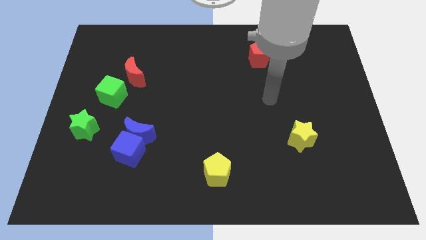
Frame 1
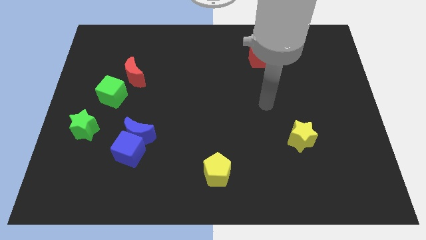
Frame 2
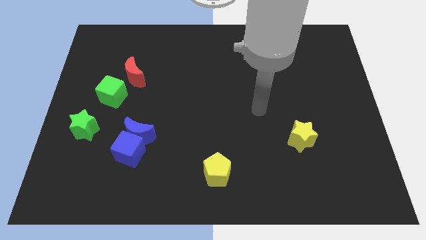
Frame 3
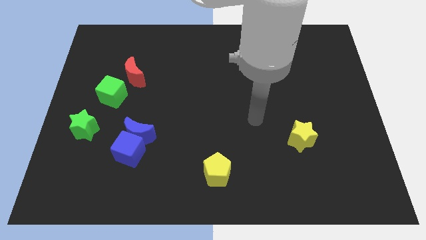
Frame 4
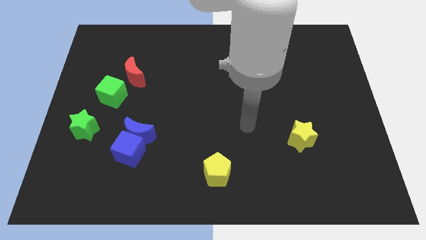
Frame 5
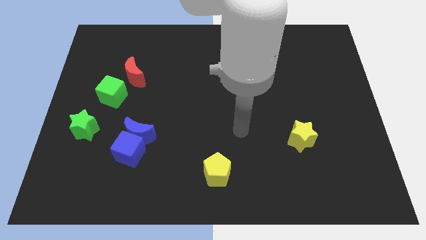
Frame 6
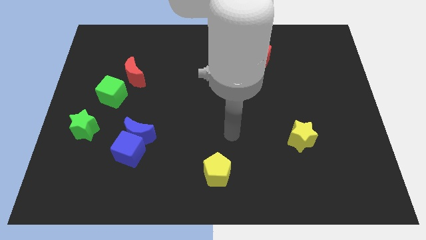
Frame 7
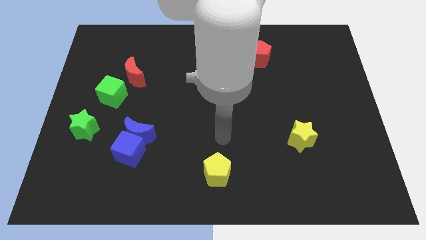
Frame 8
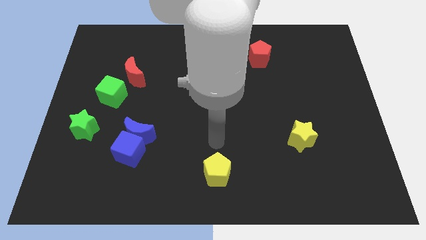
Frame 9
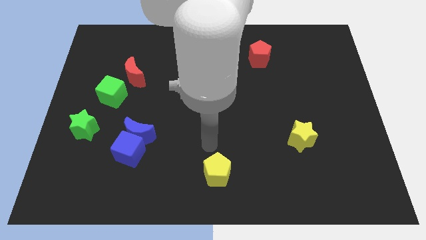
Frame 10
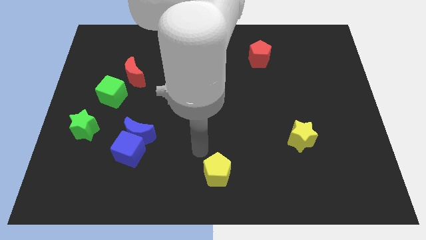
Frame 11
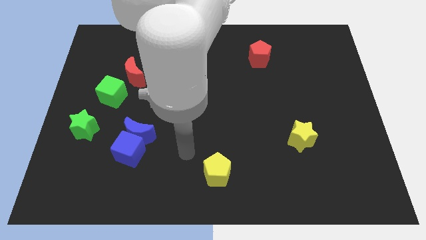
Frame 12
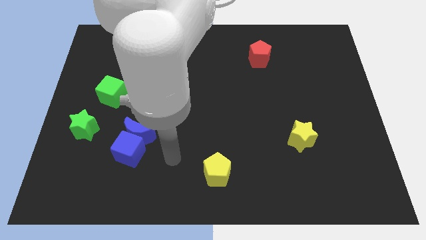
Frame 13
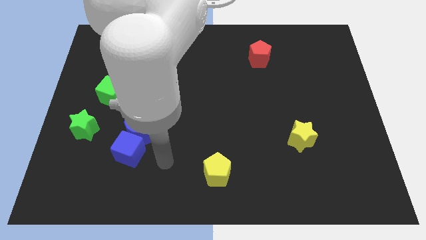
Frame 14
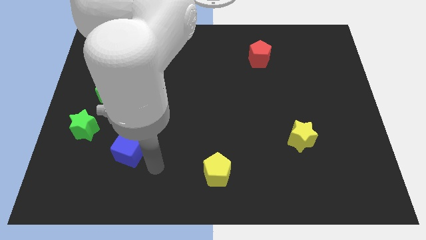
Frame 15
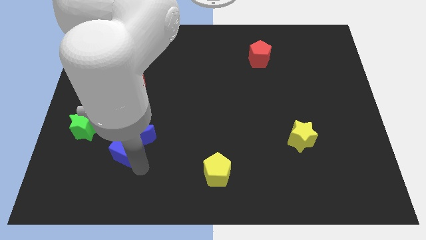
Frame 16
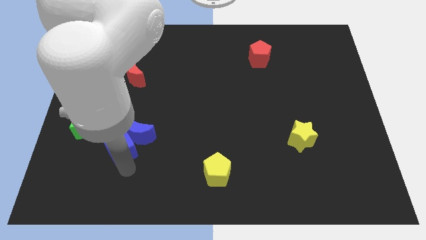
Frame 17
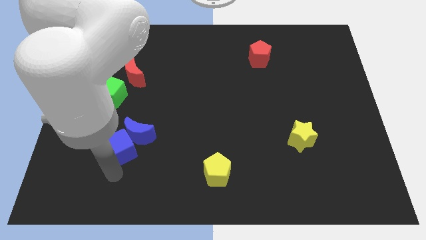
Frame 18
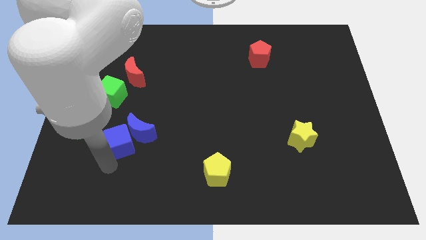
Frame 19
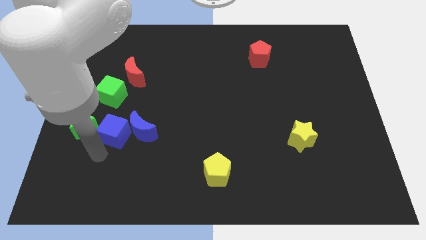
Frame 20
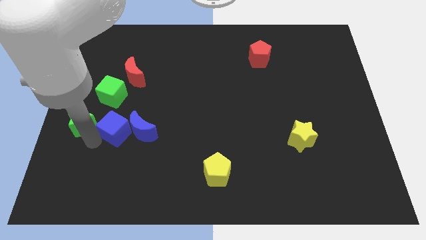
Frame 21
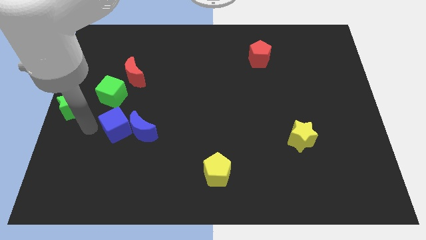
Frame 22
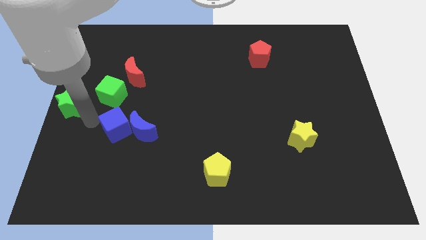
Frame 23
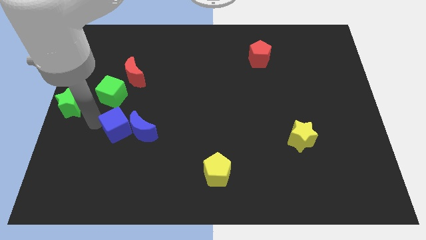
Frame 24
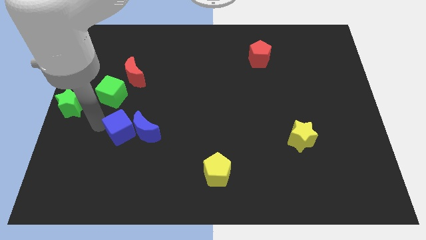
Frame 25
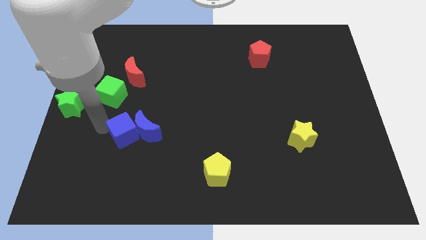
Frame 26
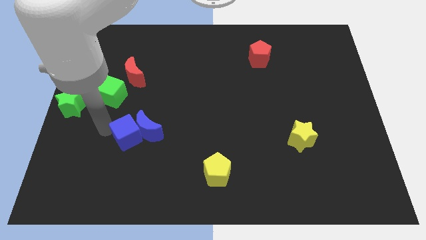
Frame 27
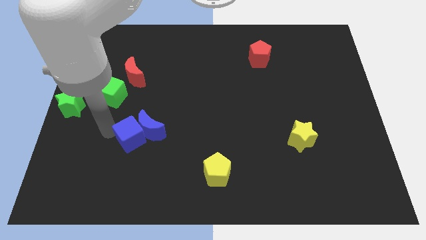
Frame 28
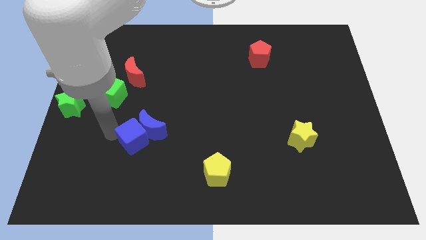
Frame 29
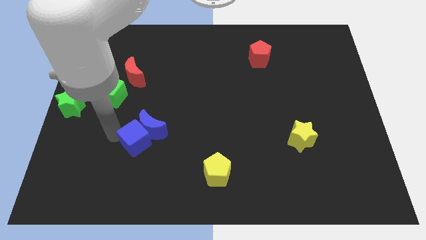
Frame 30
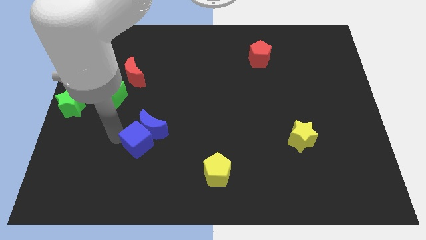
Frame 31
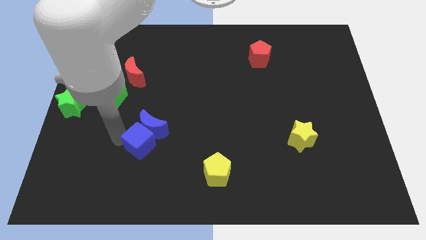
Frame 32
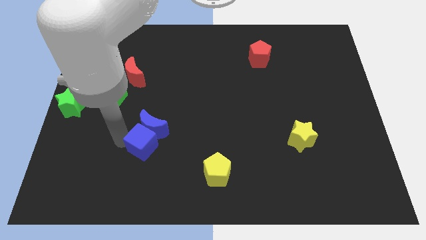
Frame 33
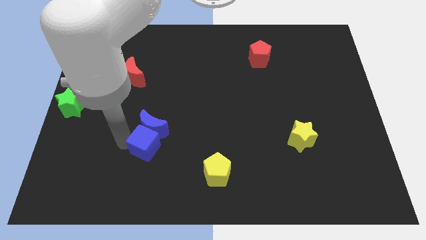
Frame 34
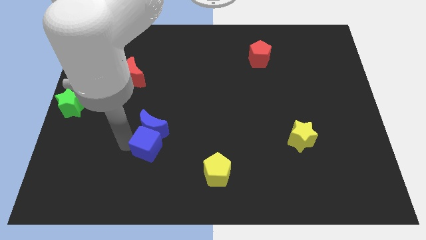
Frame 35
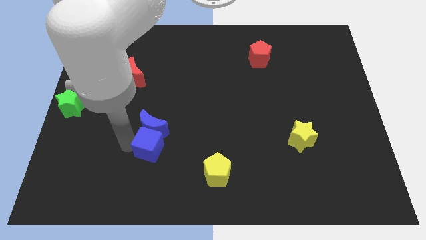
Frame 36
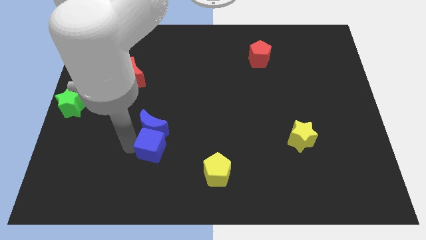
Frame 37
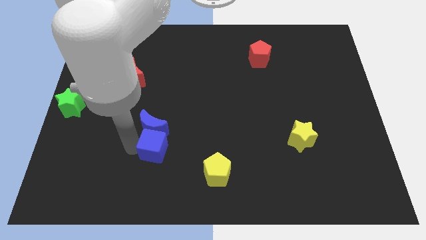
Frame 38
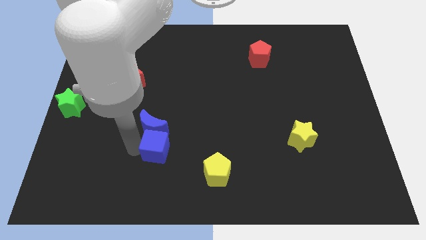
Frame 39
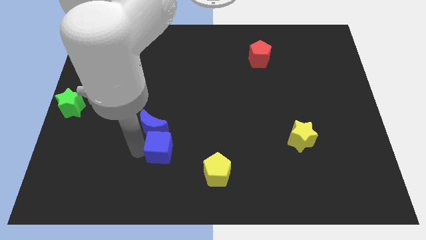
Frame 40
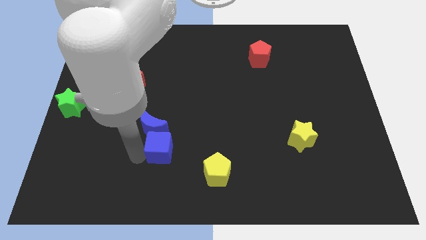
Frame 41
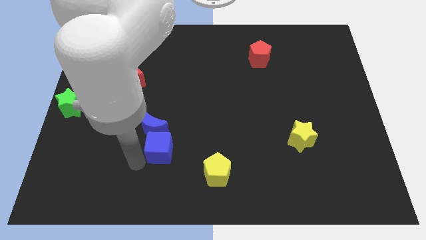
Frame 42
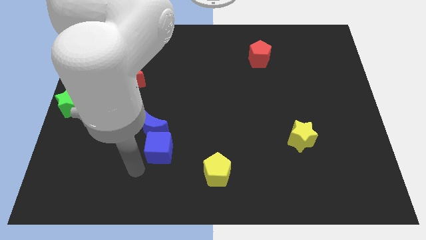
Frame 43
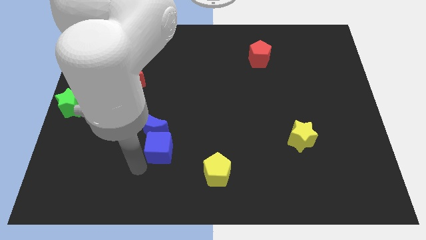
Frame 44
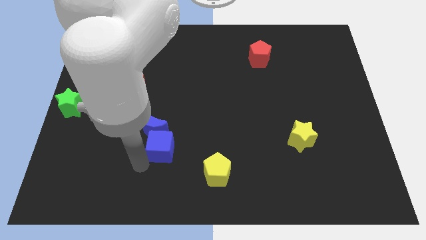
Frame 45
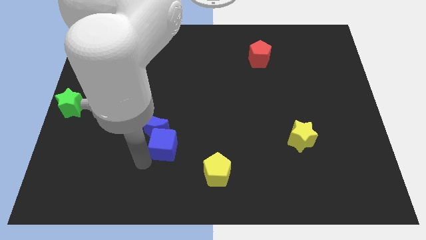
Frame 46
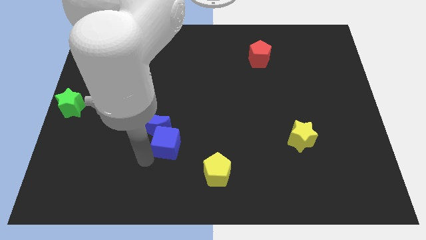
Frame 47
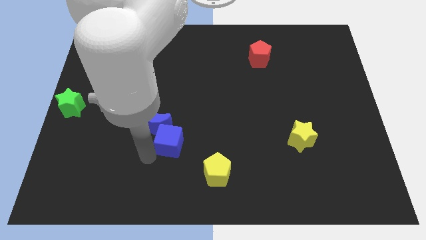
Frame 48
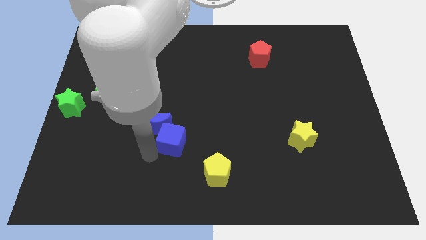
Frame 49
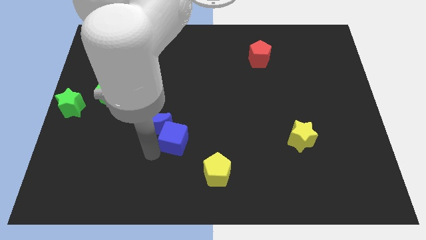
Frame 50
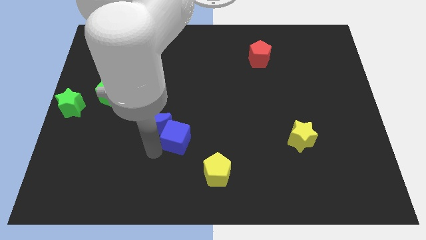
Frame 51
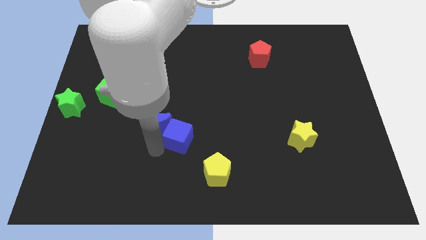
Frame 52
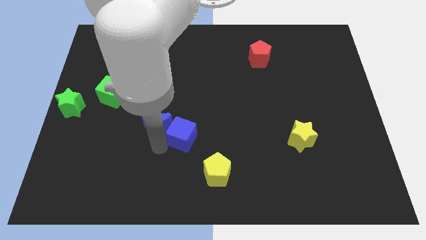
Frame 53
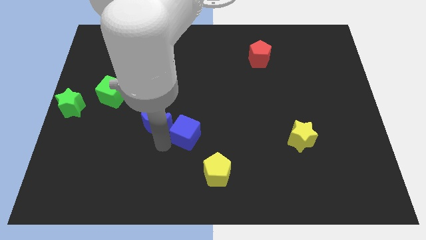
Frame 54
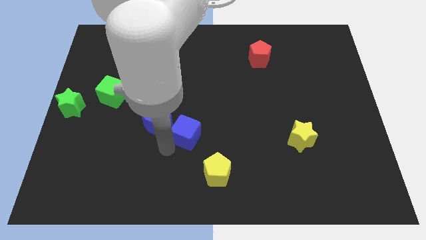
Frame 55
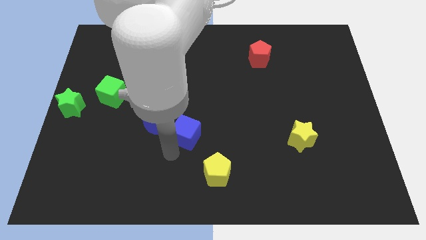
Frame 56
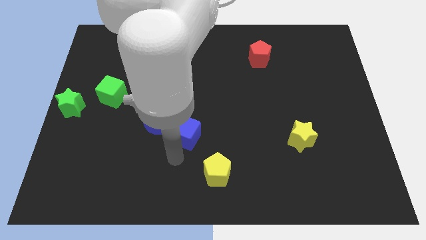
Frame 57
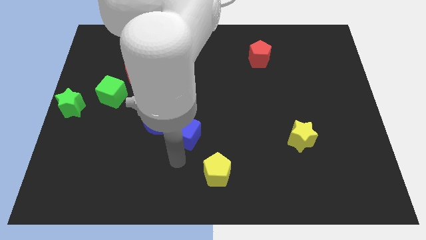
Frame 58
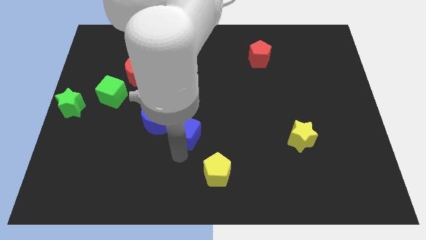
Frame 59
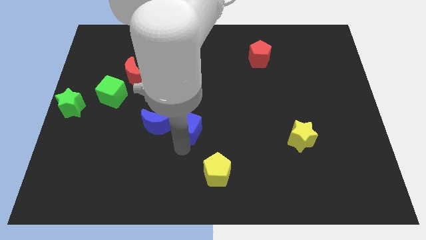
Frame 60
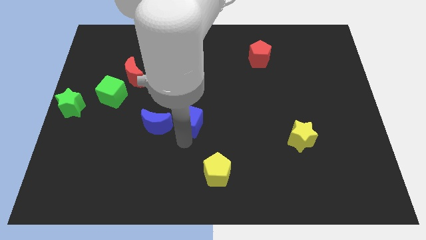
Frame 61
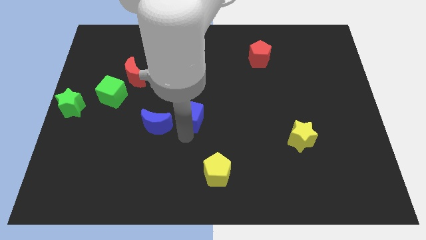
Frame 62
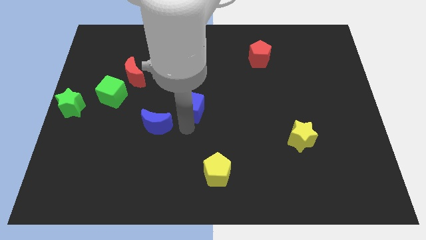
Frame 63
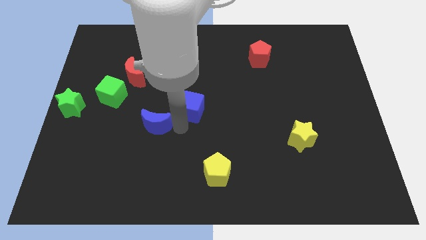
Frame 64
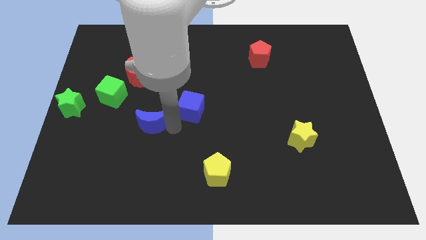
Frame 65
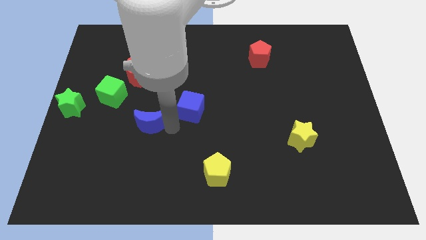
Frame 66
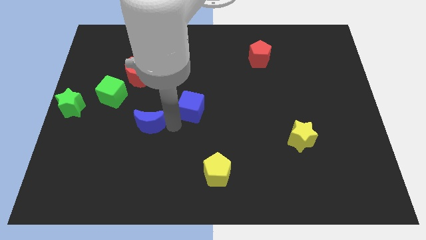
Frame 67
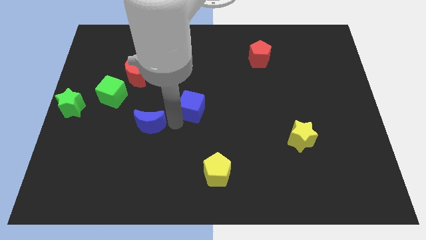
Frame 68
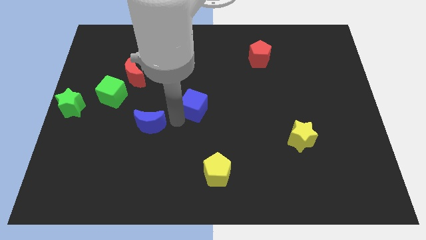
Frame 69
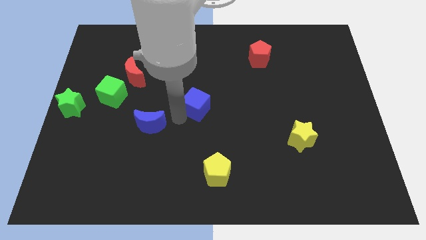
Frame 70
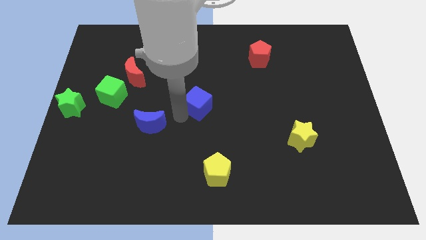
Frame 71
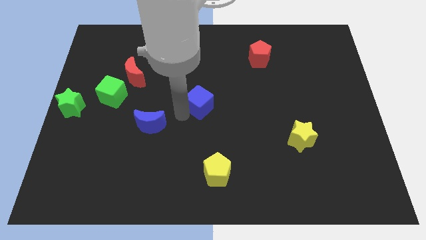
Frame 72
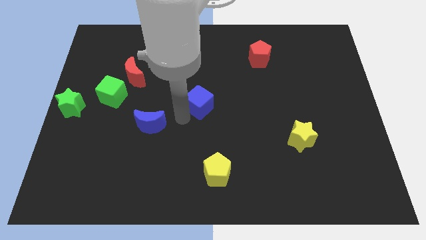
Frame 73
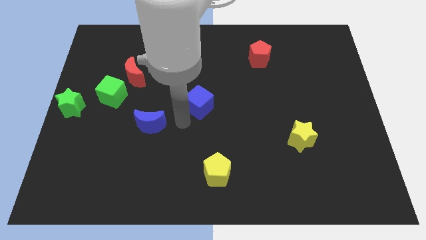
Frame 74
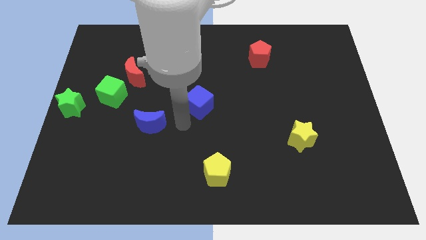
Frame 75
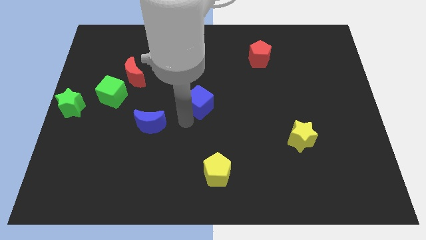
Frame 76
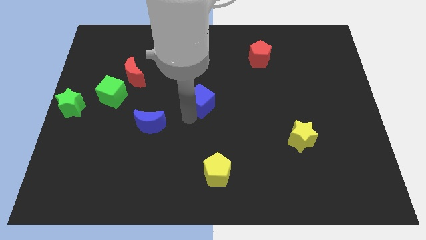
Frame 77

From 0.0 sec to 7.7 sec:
move the blue cube diagonally up and to the right

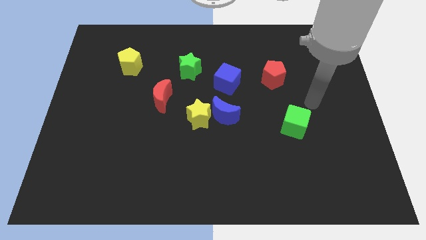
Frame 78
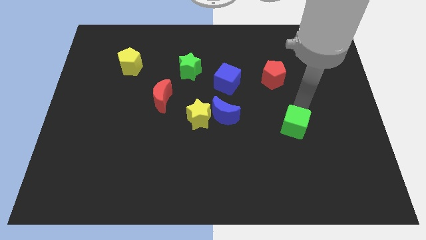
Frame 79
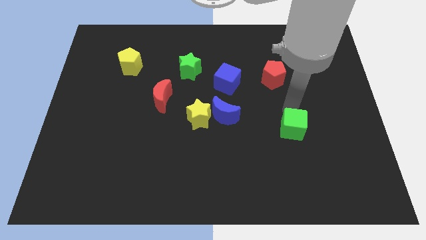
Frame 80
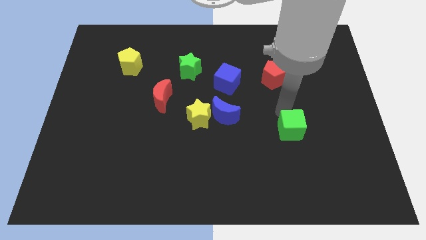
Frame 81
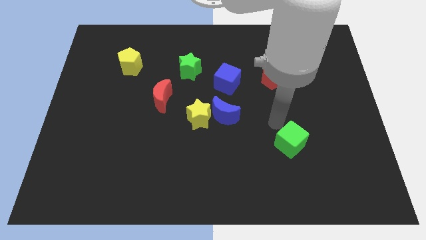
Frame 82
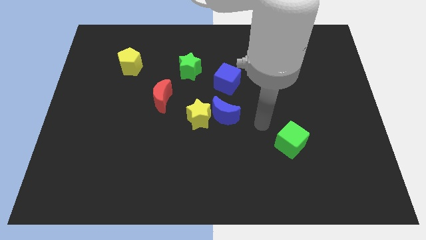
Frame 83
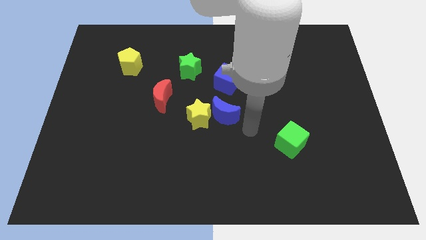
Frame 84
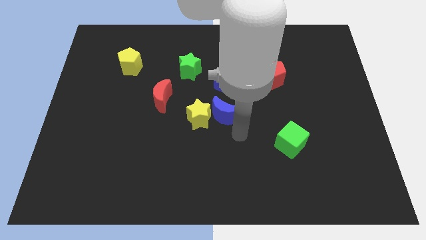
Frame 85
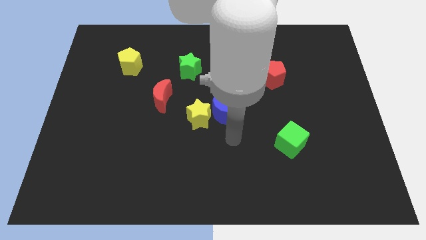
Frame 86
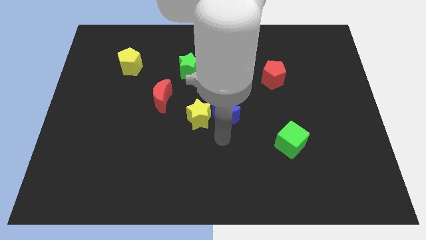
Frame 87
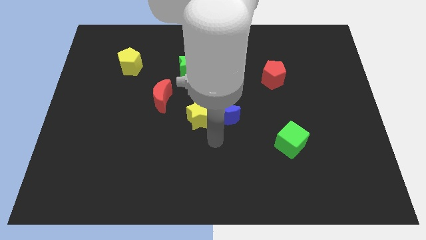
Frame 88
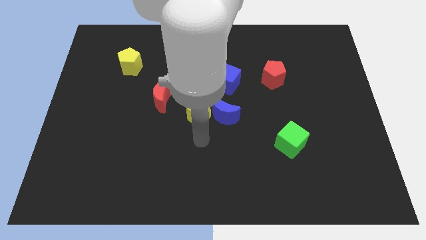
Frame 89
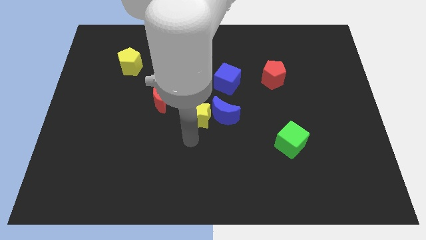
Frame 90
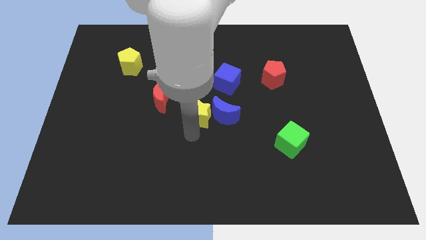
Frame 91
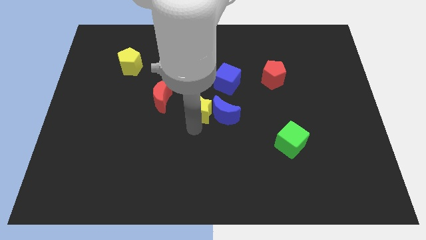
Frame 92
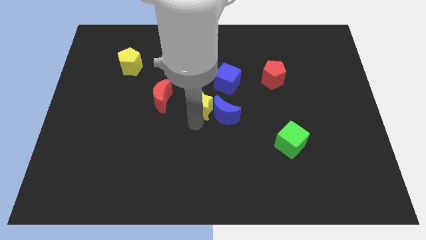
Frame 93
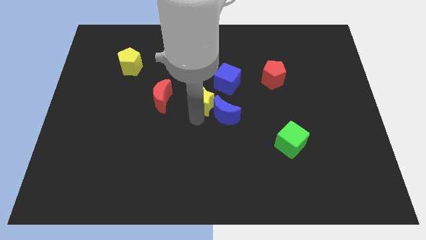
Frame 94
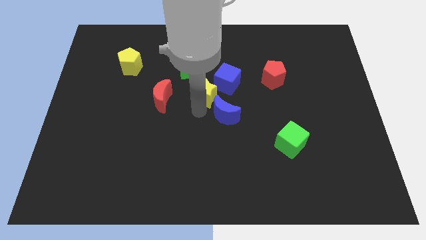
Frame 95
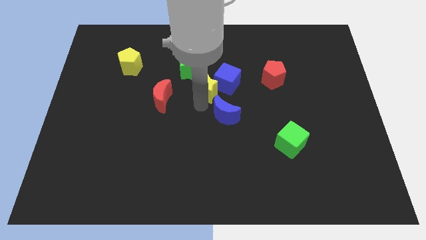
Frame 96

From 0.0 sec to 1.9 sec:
slide the yellow star upwards a bit
